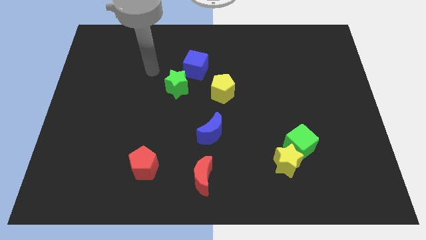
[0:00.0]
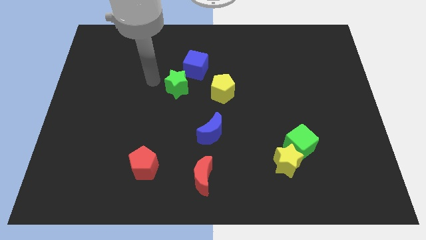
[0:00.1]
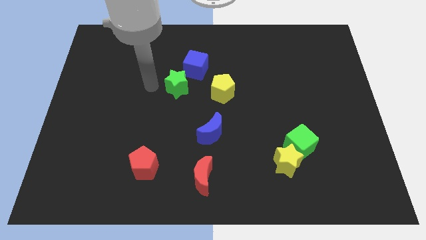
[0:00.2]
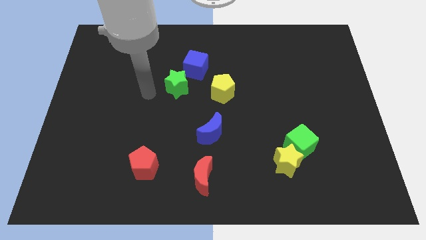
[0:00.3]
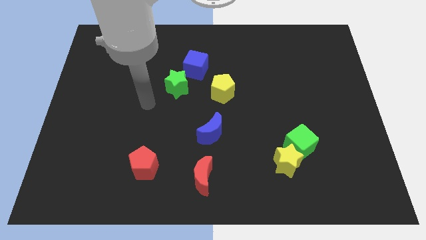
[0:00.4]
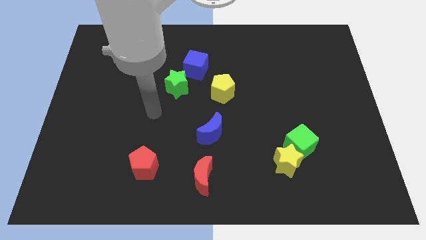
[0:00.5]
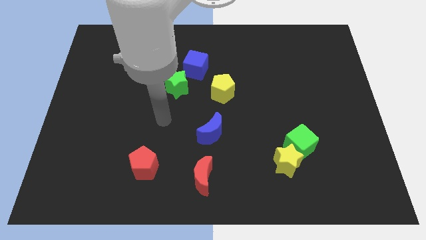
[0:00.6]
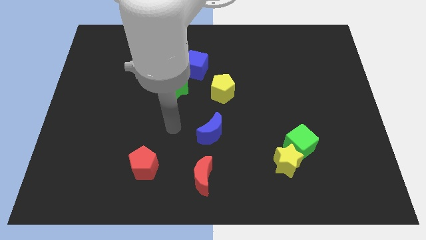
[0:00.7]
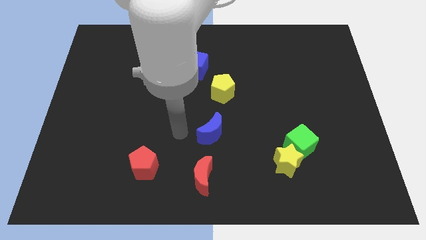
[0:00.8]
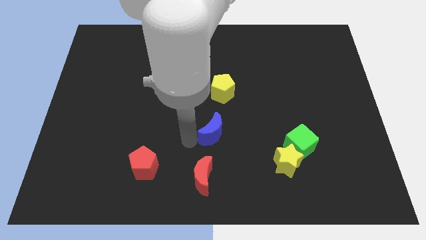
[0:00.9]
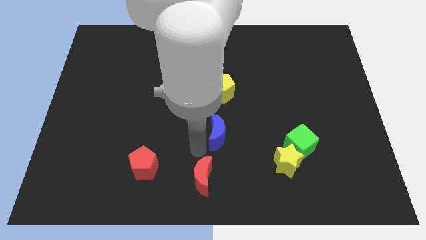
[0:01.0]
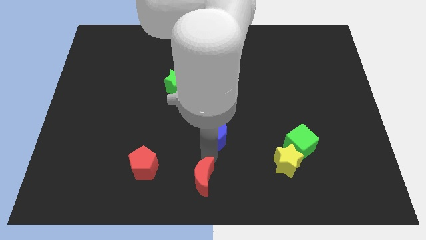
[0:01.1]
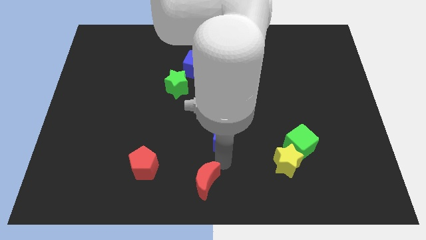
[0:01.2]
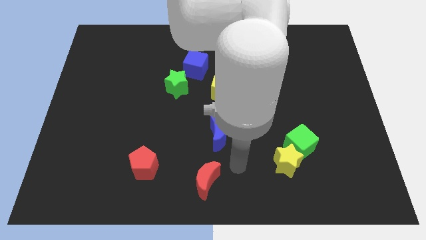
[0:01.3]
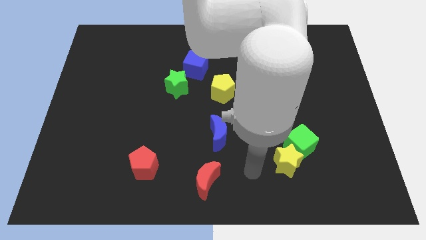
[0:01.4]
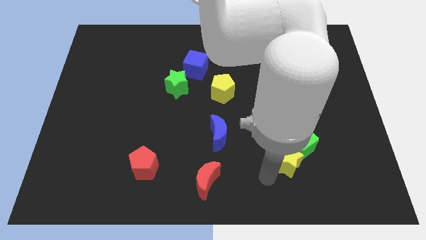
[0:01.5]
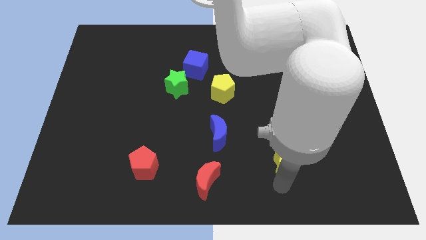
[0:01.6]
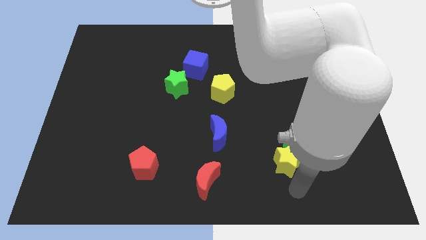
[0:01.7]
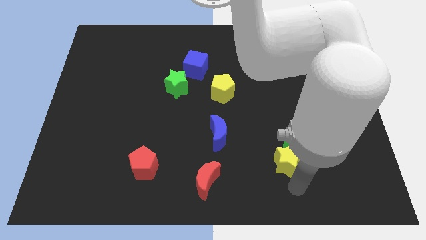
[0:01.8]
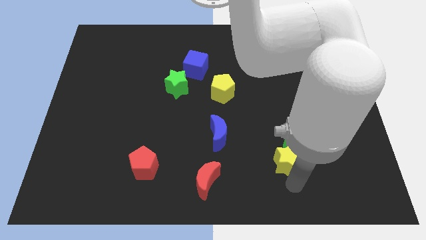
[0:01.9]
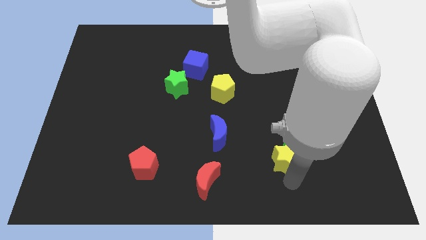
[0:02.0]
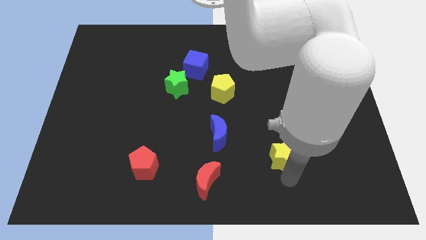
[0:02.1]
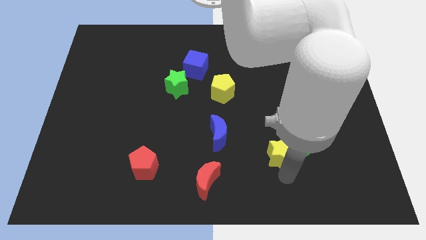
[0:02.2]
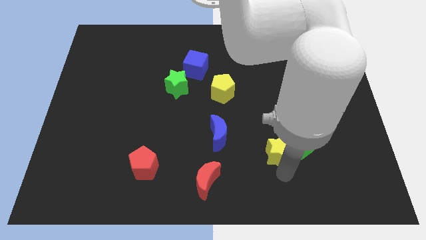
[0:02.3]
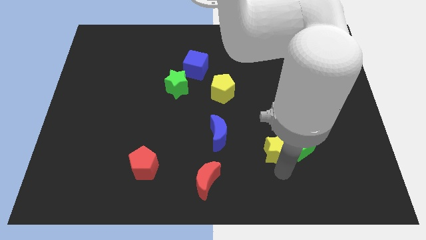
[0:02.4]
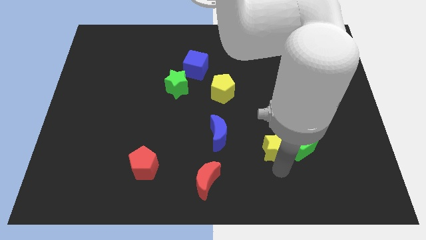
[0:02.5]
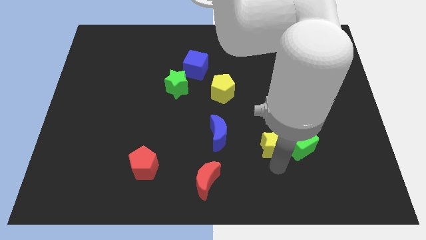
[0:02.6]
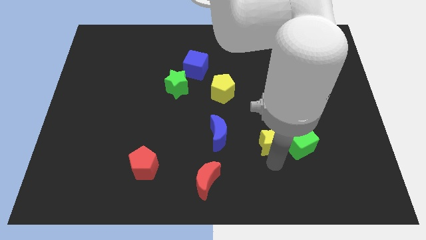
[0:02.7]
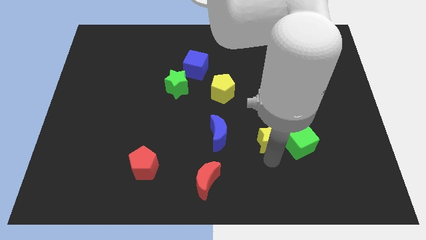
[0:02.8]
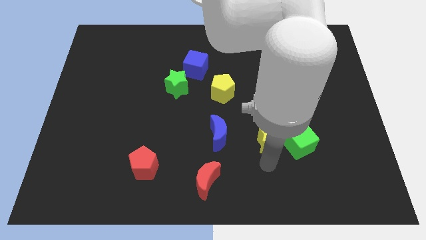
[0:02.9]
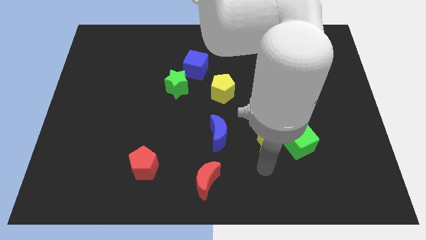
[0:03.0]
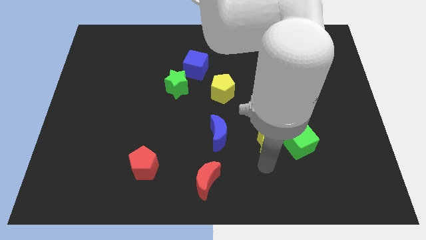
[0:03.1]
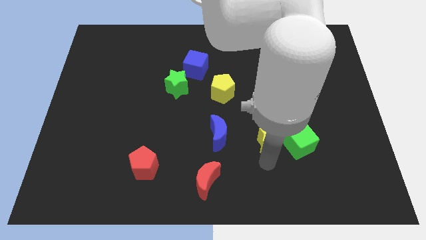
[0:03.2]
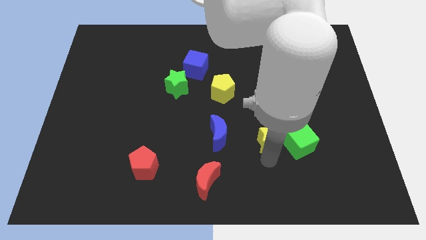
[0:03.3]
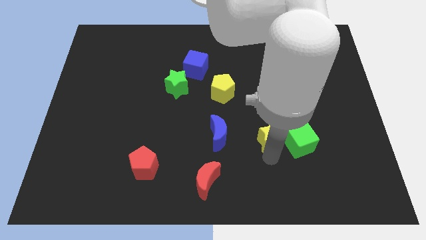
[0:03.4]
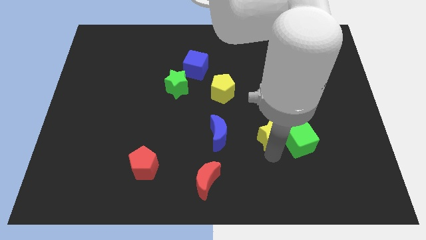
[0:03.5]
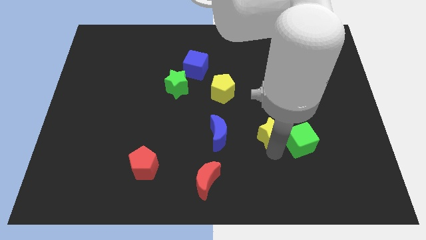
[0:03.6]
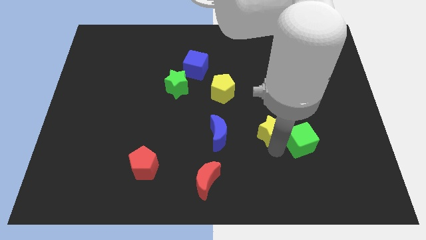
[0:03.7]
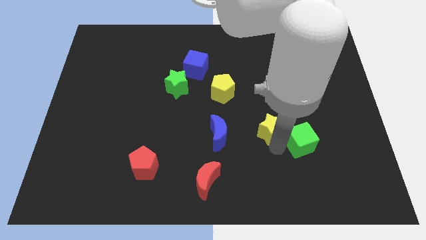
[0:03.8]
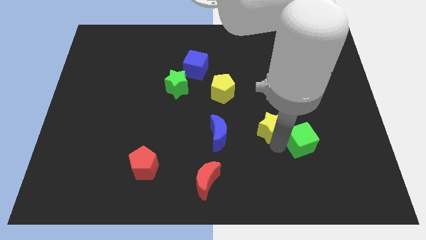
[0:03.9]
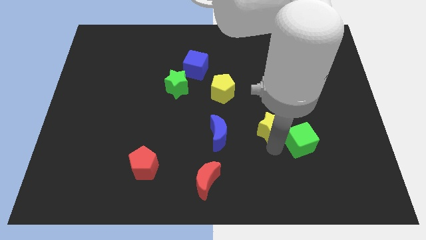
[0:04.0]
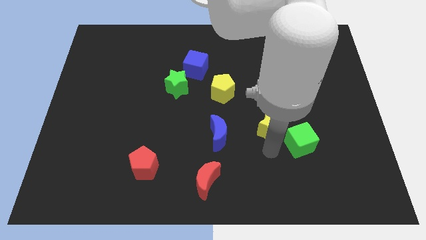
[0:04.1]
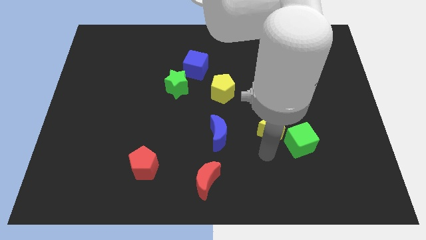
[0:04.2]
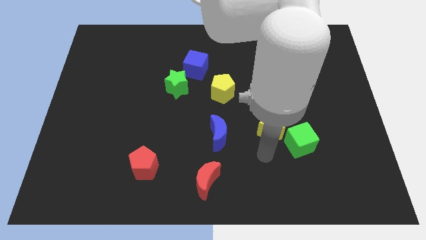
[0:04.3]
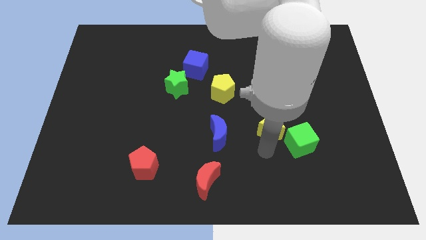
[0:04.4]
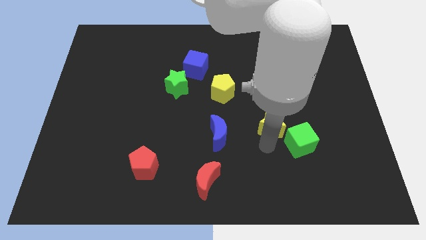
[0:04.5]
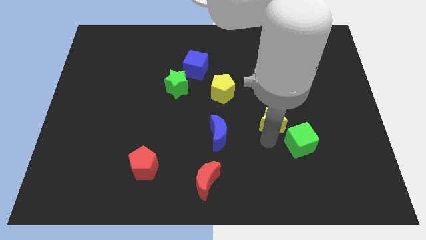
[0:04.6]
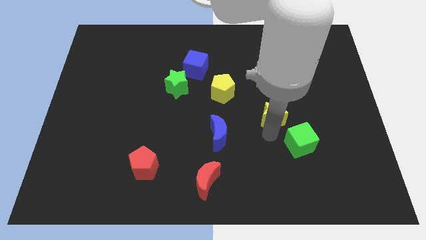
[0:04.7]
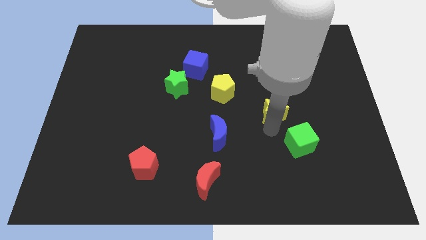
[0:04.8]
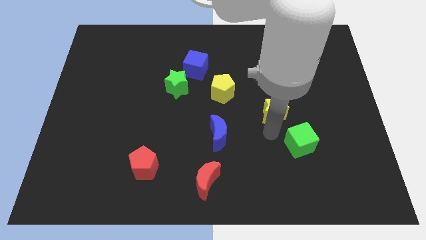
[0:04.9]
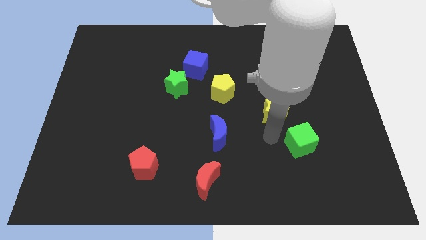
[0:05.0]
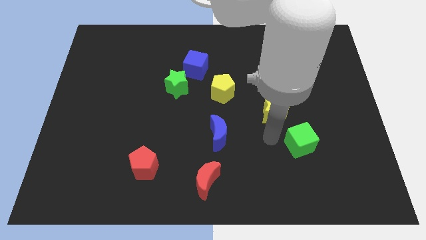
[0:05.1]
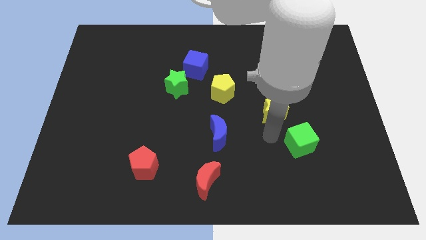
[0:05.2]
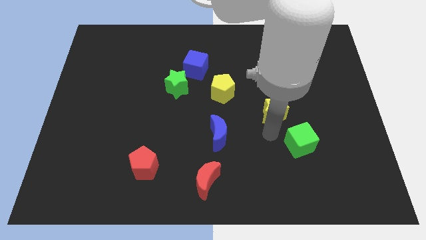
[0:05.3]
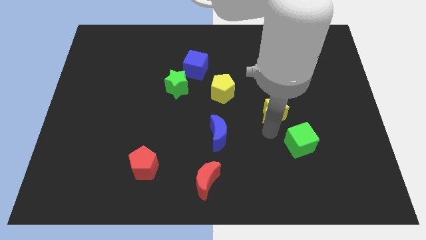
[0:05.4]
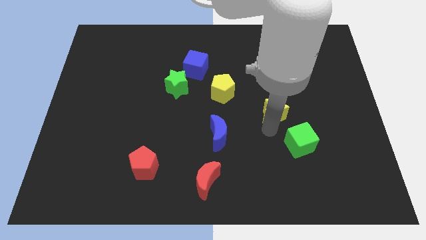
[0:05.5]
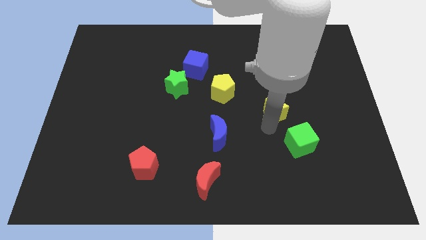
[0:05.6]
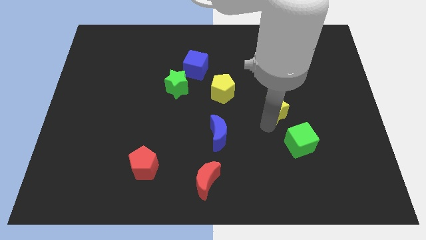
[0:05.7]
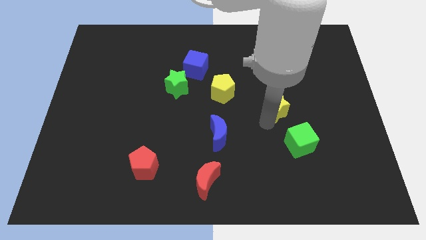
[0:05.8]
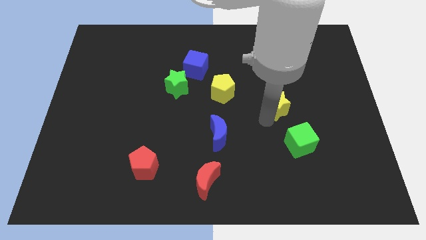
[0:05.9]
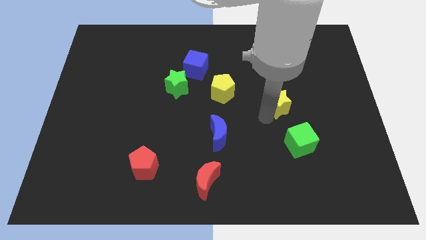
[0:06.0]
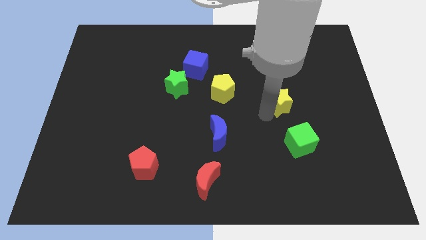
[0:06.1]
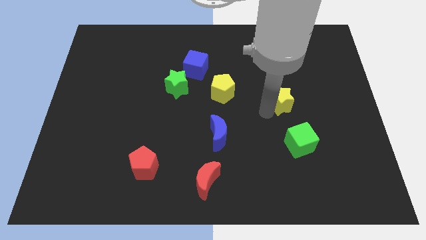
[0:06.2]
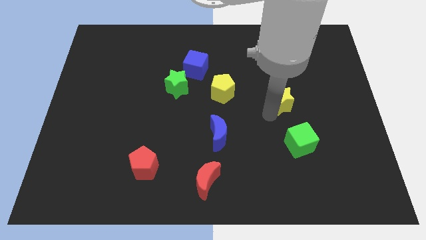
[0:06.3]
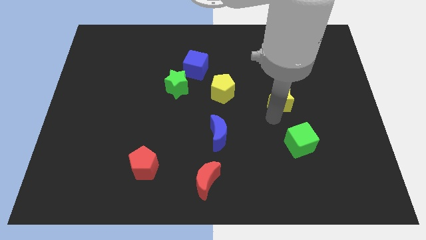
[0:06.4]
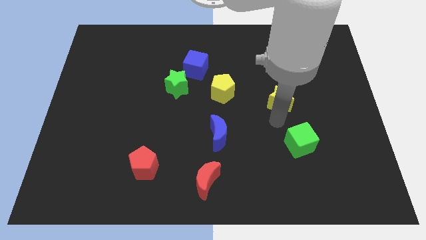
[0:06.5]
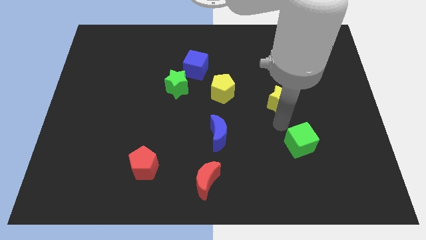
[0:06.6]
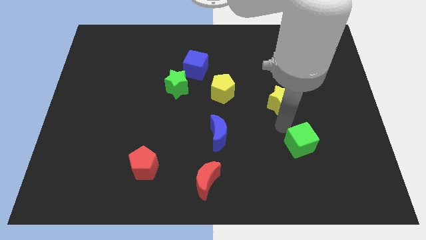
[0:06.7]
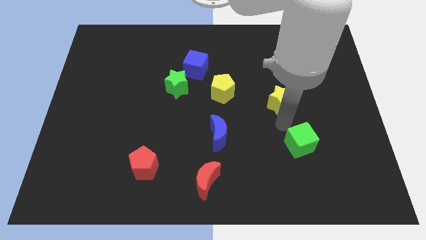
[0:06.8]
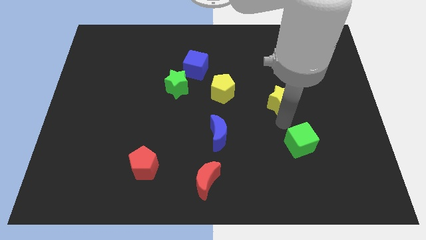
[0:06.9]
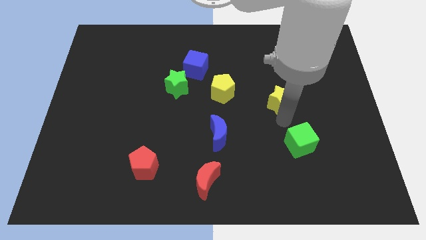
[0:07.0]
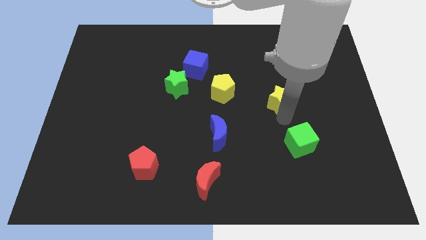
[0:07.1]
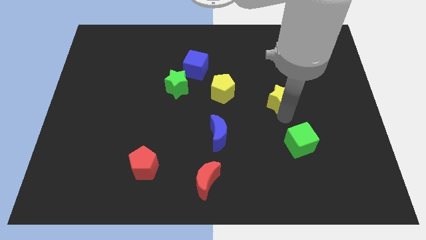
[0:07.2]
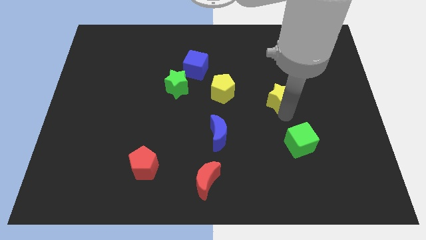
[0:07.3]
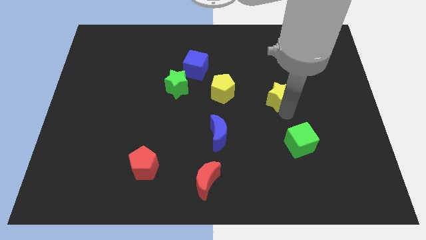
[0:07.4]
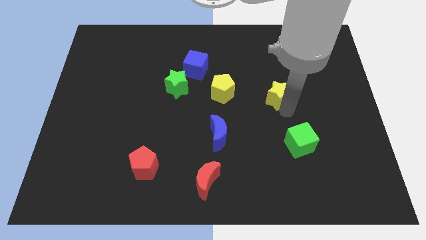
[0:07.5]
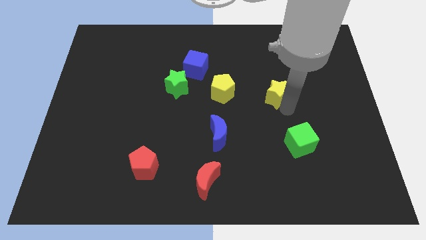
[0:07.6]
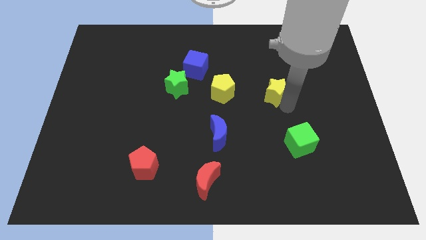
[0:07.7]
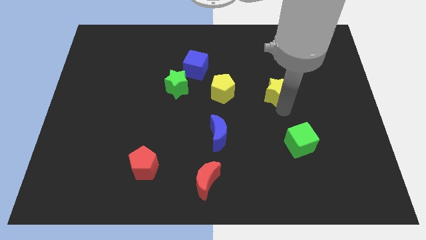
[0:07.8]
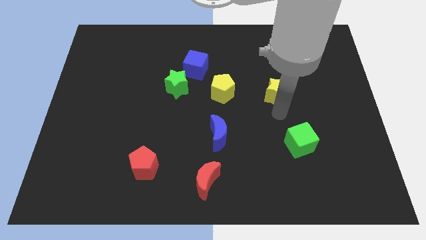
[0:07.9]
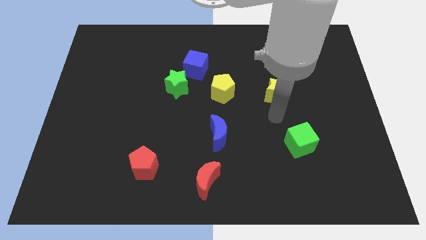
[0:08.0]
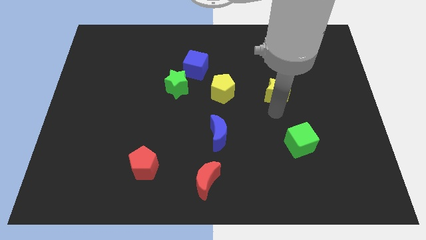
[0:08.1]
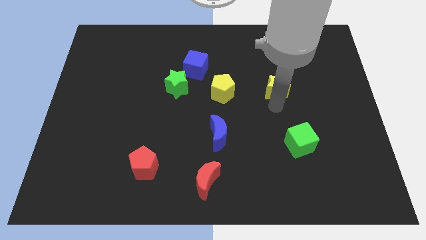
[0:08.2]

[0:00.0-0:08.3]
slide the yellow star up
